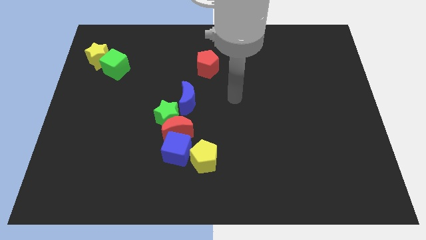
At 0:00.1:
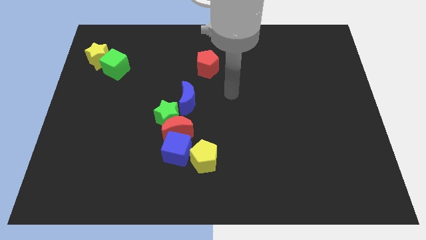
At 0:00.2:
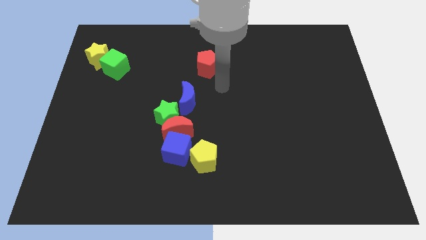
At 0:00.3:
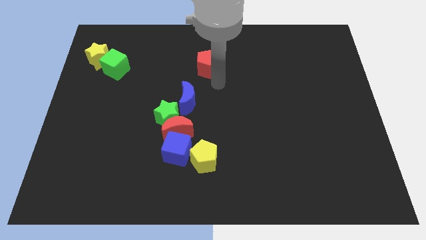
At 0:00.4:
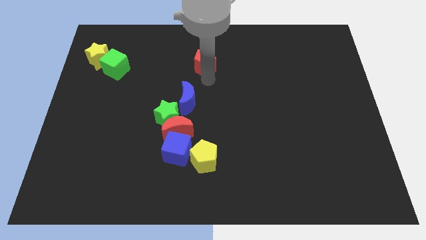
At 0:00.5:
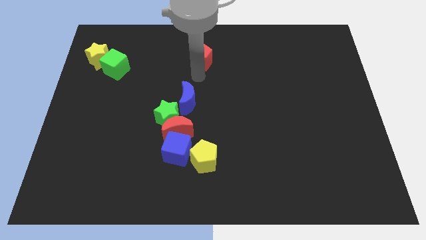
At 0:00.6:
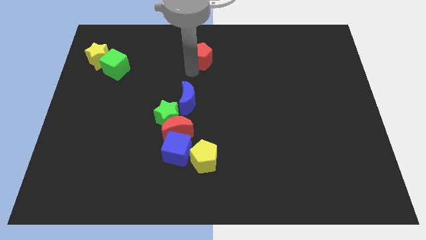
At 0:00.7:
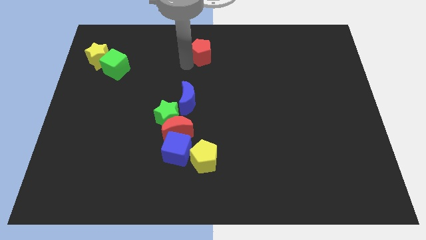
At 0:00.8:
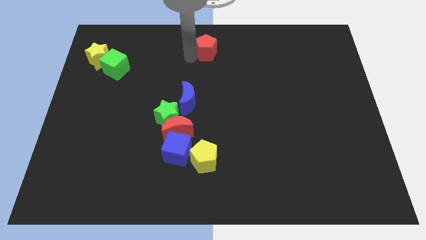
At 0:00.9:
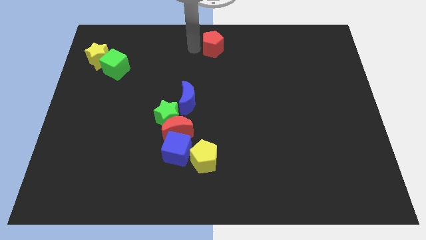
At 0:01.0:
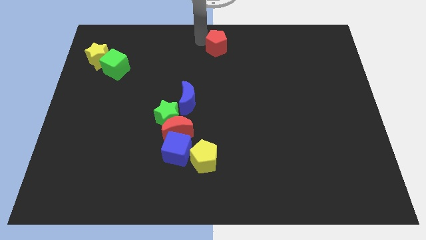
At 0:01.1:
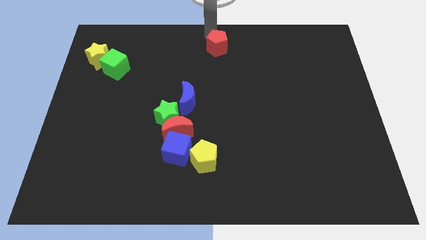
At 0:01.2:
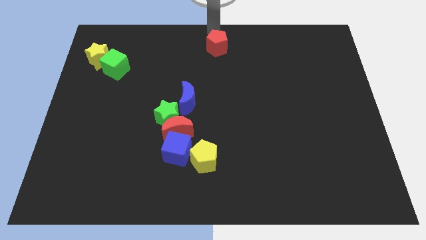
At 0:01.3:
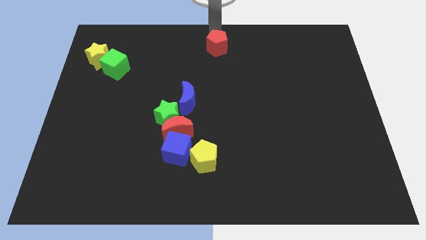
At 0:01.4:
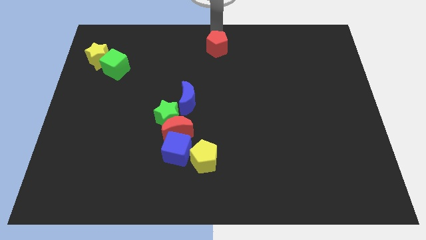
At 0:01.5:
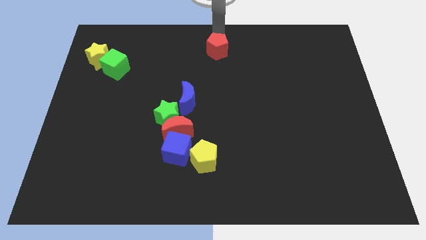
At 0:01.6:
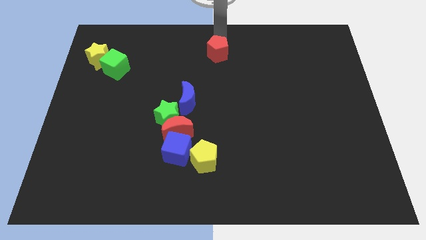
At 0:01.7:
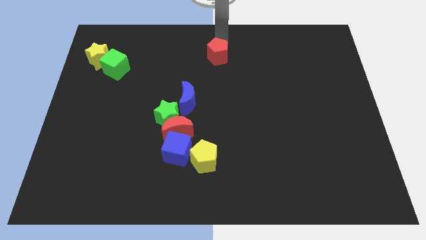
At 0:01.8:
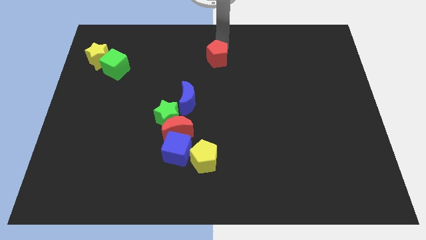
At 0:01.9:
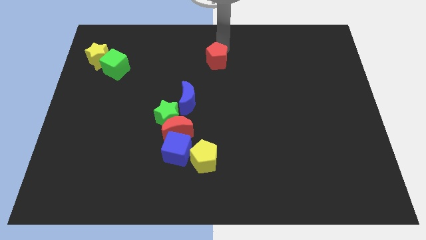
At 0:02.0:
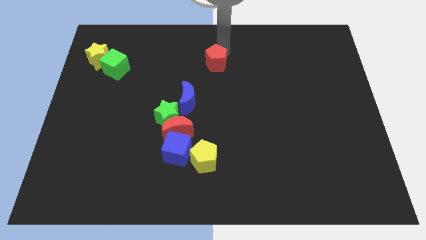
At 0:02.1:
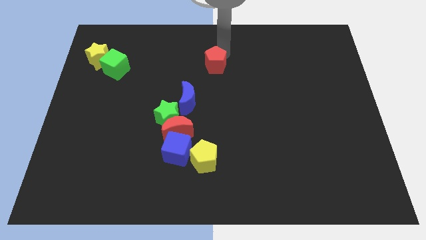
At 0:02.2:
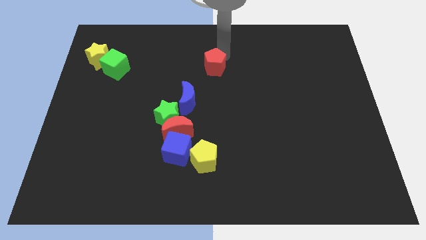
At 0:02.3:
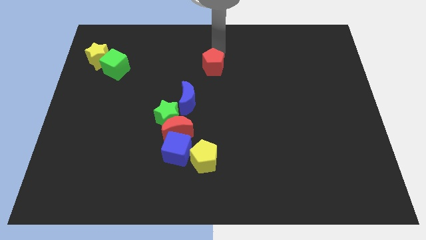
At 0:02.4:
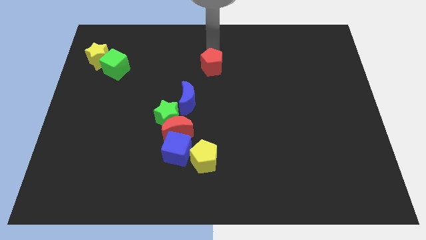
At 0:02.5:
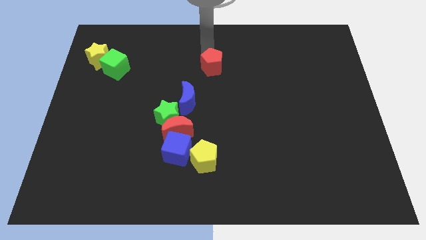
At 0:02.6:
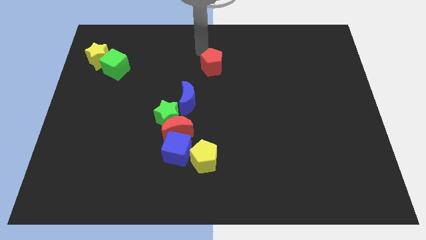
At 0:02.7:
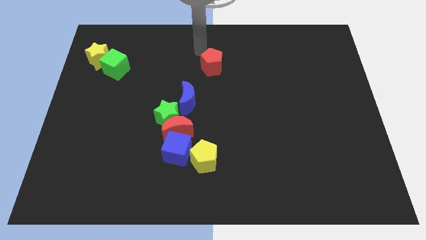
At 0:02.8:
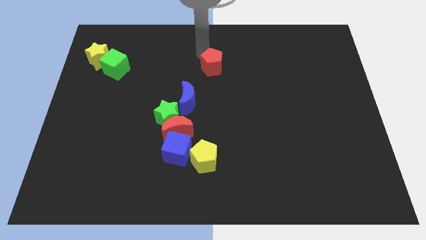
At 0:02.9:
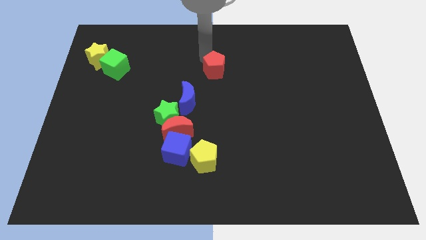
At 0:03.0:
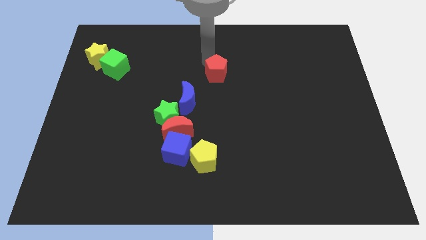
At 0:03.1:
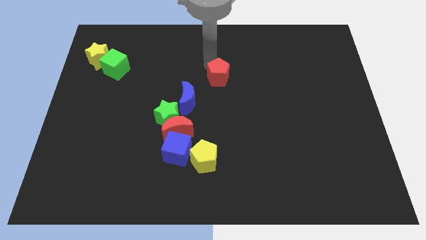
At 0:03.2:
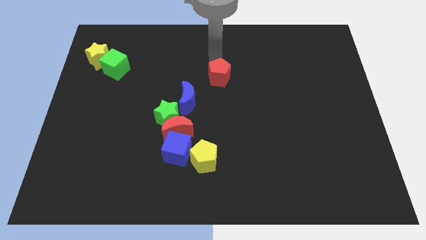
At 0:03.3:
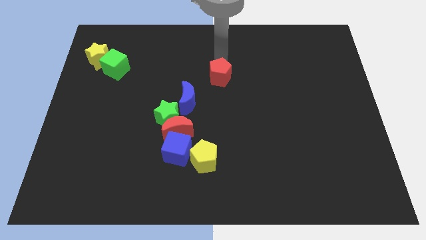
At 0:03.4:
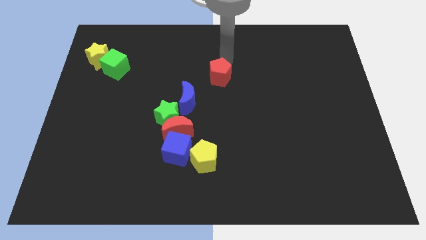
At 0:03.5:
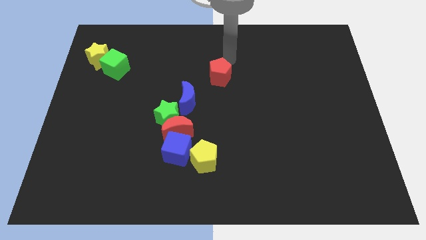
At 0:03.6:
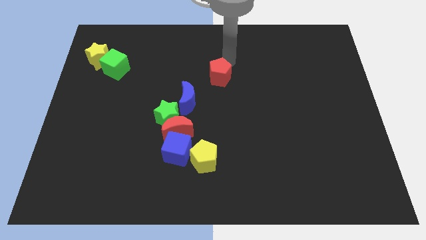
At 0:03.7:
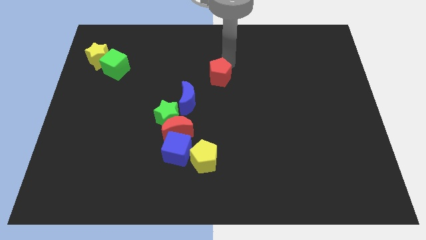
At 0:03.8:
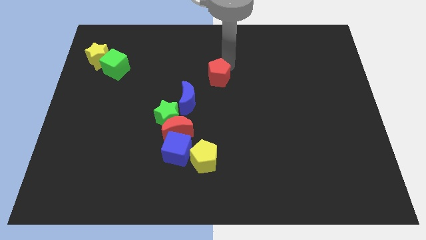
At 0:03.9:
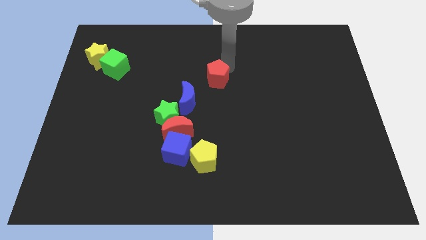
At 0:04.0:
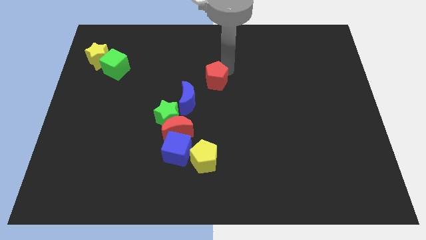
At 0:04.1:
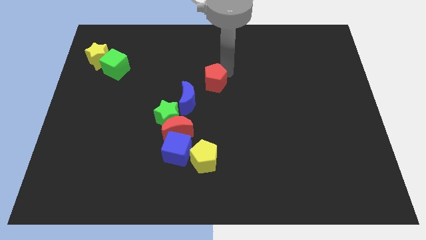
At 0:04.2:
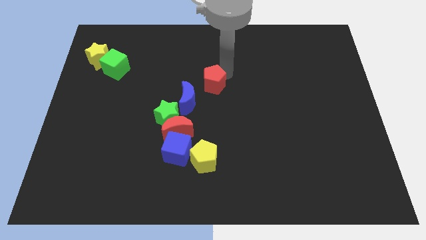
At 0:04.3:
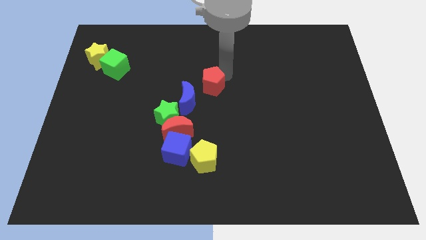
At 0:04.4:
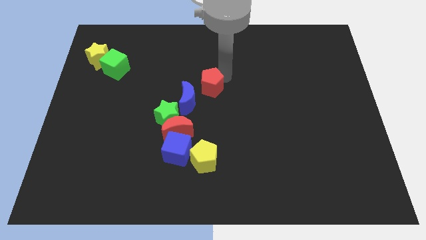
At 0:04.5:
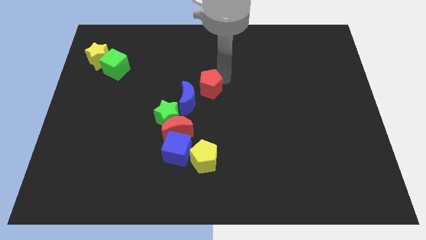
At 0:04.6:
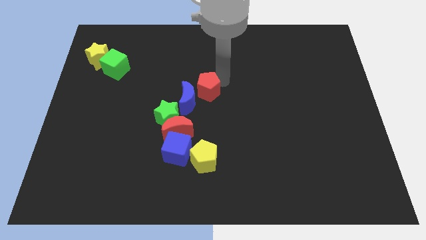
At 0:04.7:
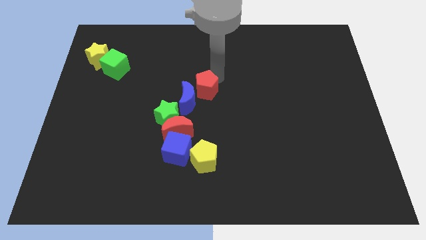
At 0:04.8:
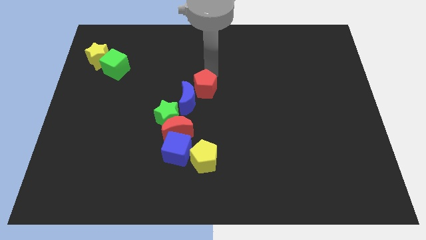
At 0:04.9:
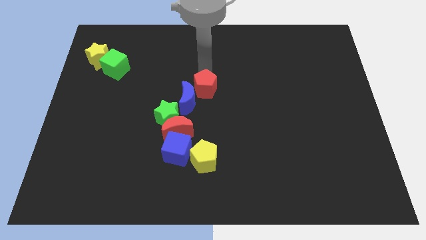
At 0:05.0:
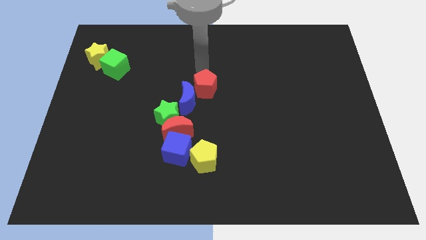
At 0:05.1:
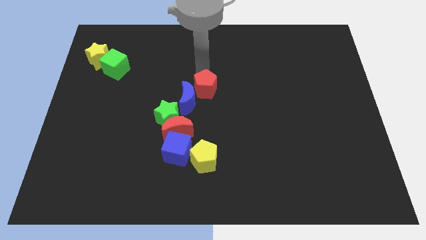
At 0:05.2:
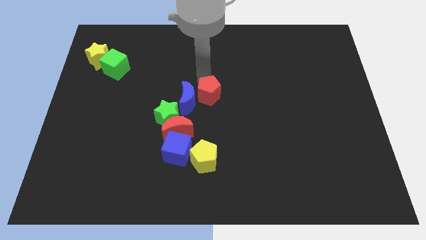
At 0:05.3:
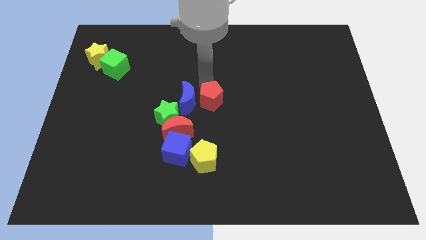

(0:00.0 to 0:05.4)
slide the red pentagon to the bottom right of the blue moon

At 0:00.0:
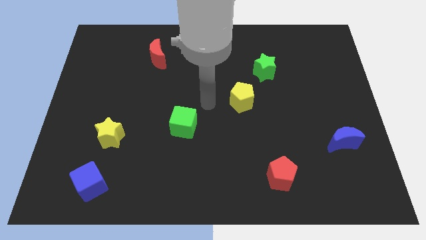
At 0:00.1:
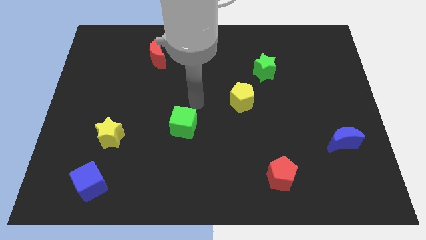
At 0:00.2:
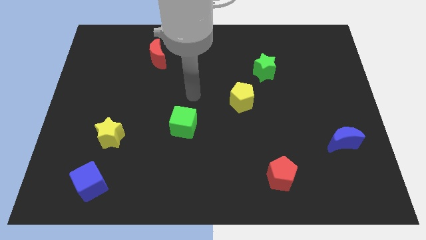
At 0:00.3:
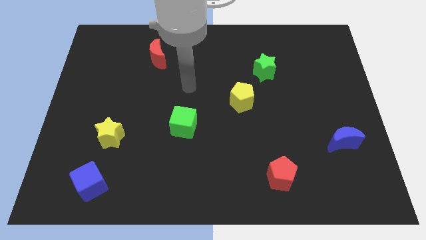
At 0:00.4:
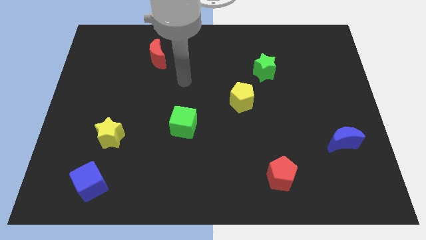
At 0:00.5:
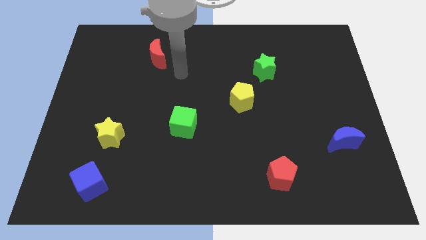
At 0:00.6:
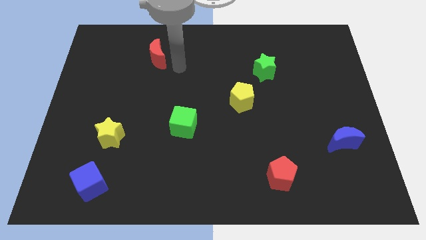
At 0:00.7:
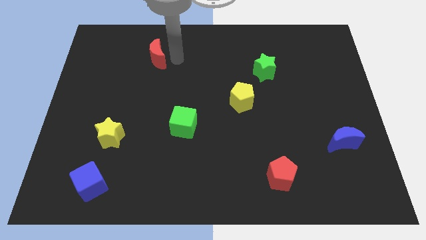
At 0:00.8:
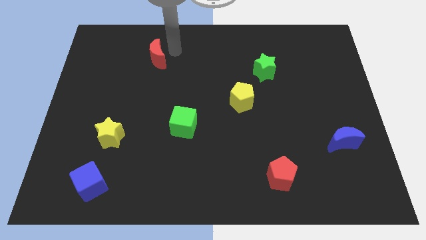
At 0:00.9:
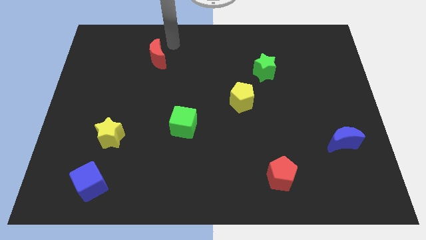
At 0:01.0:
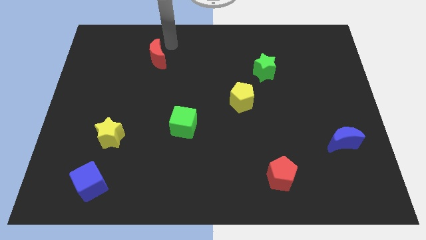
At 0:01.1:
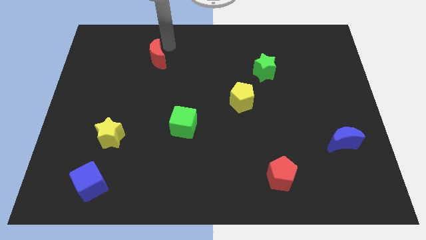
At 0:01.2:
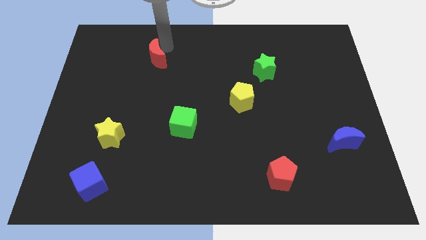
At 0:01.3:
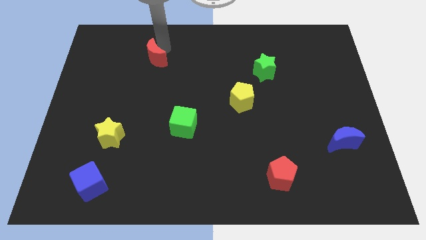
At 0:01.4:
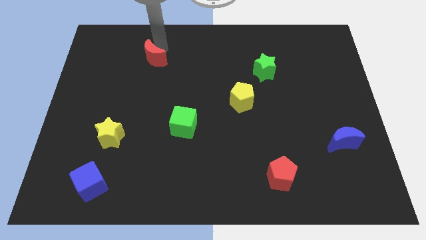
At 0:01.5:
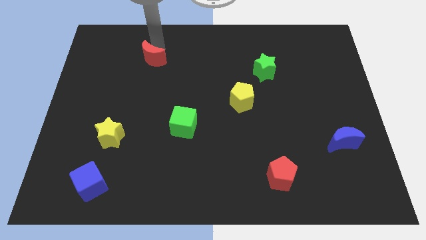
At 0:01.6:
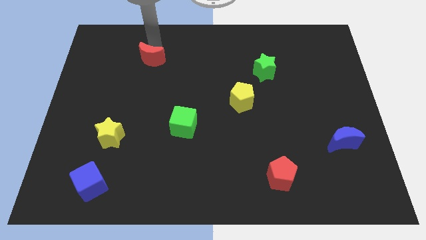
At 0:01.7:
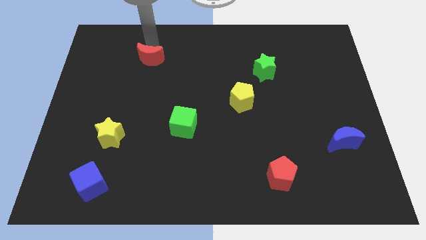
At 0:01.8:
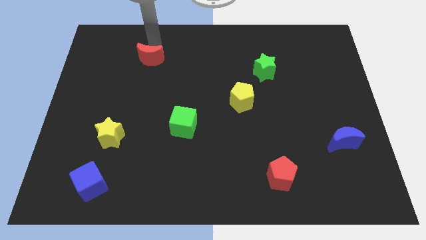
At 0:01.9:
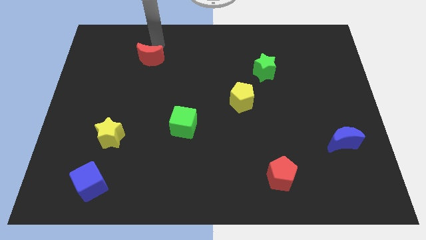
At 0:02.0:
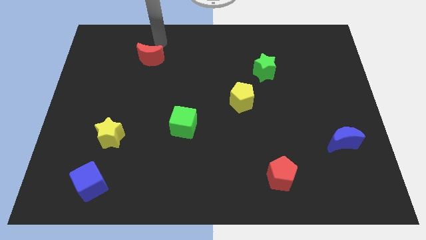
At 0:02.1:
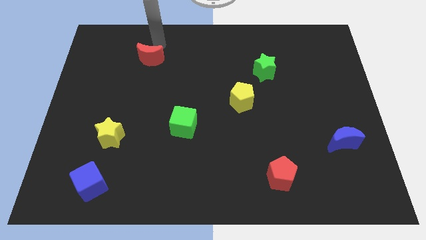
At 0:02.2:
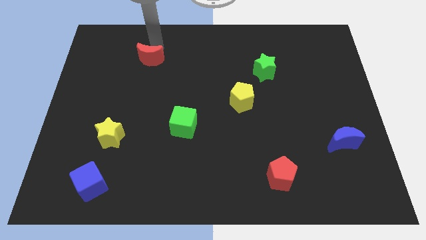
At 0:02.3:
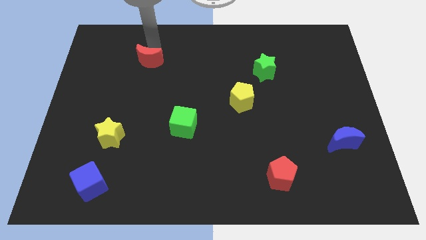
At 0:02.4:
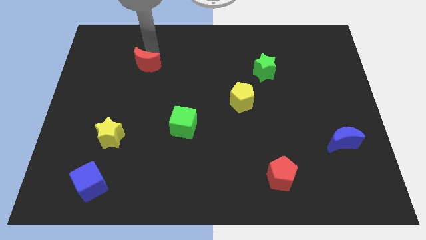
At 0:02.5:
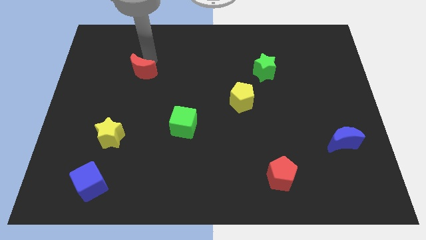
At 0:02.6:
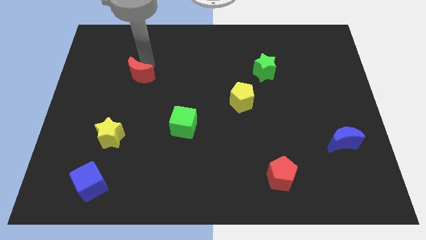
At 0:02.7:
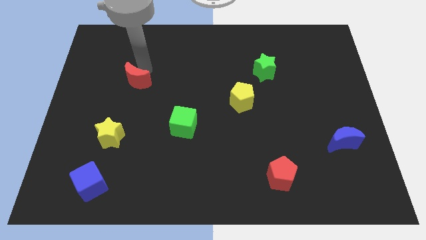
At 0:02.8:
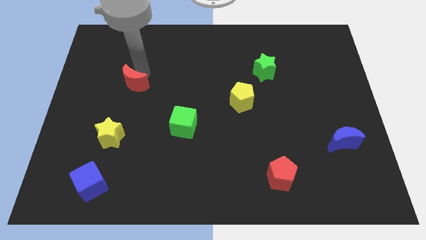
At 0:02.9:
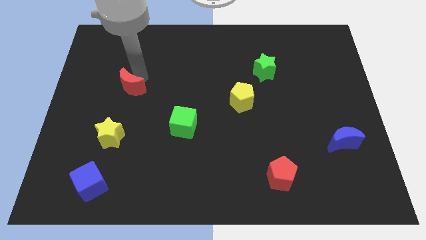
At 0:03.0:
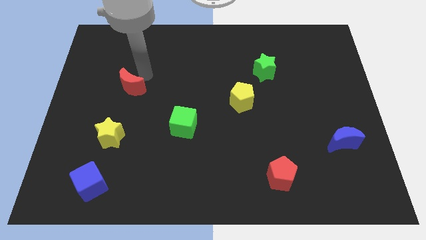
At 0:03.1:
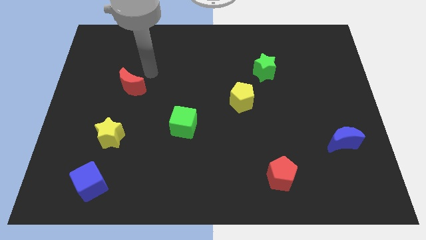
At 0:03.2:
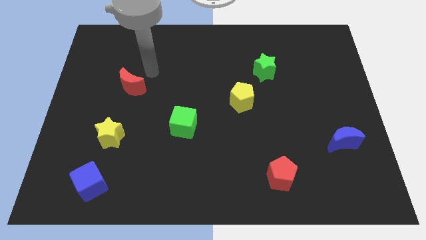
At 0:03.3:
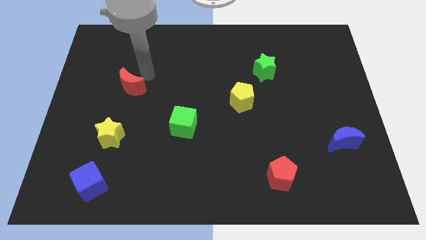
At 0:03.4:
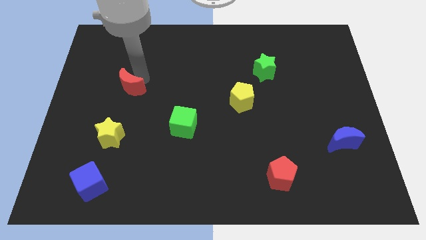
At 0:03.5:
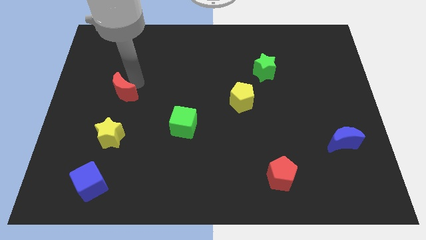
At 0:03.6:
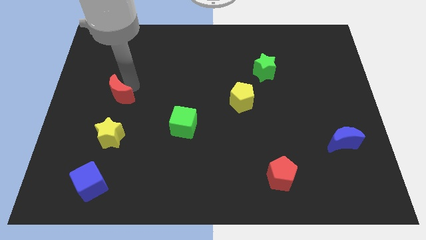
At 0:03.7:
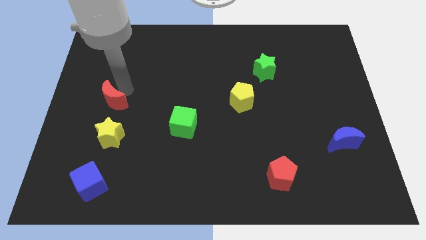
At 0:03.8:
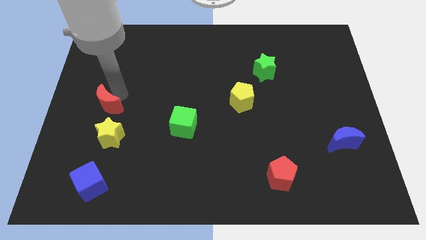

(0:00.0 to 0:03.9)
move the red moon diagonally up and to the left of the yellow star
